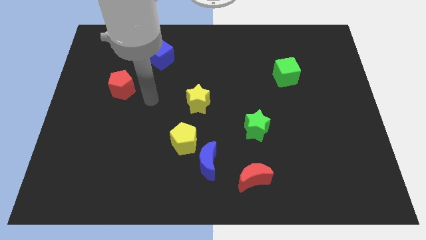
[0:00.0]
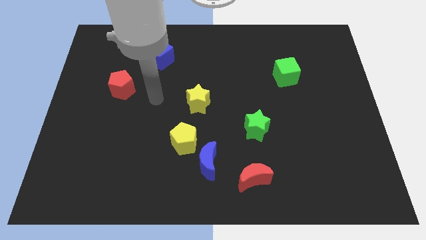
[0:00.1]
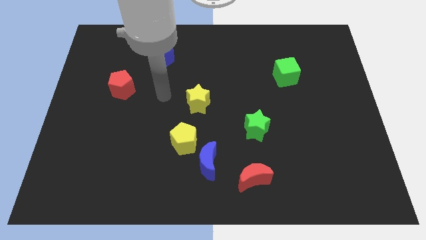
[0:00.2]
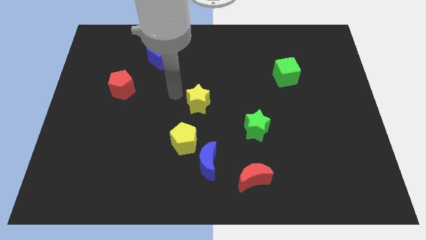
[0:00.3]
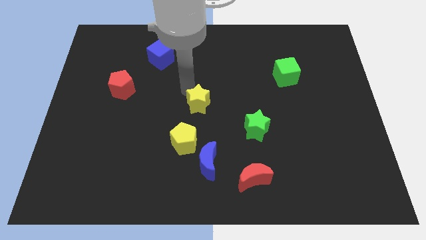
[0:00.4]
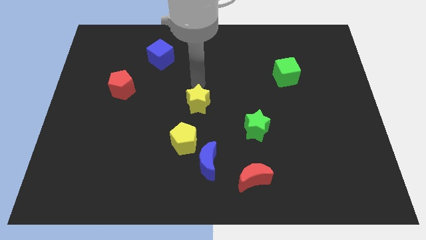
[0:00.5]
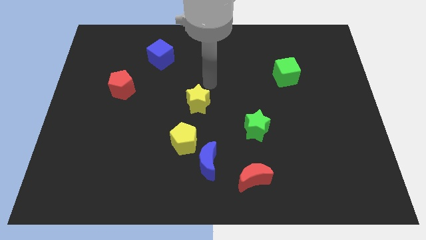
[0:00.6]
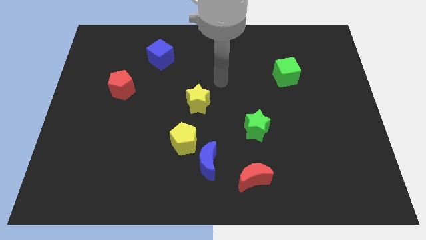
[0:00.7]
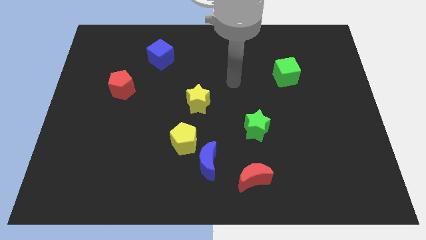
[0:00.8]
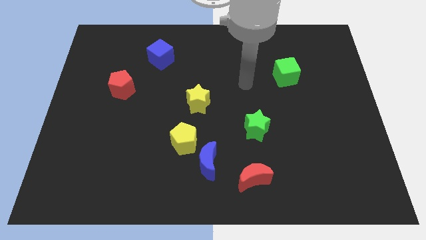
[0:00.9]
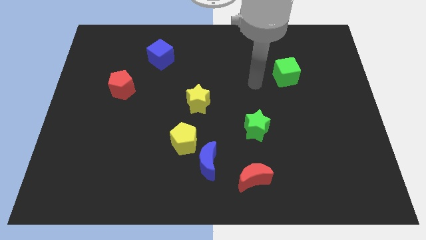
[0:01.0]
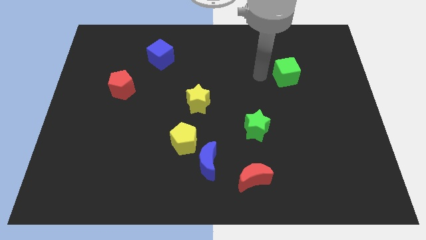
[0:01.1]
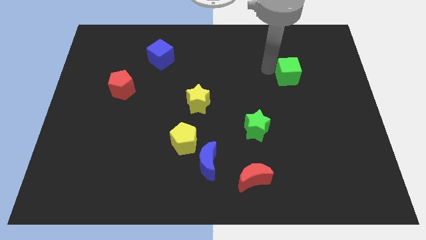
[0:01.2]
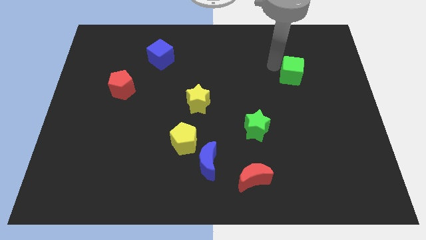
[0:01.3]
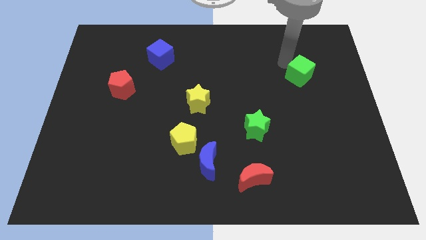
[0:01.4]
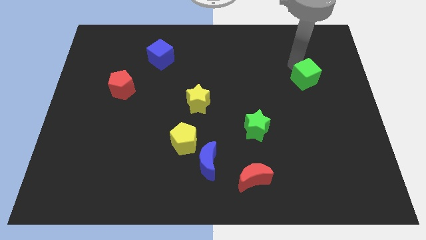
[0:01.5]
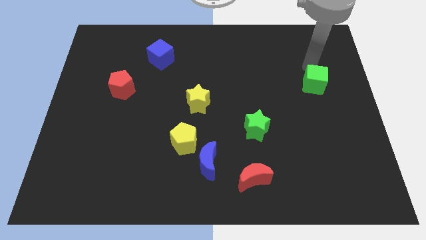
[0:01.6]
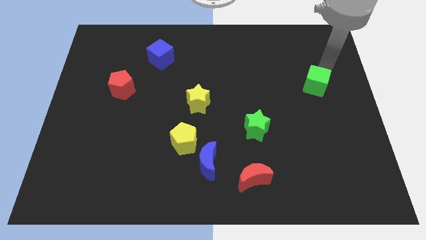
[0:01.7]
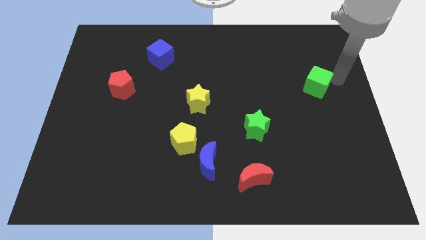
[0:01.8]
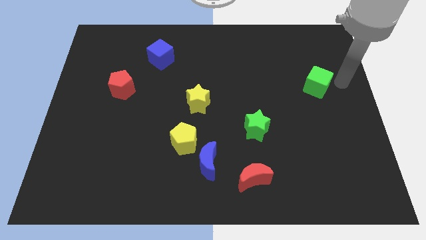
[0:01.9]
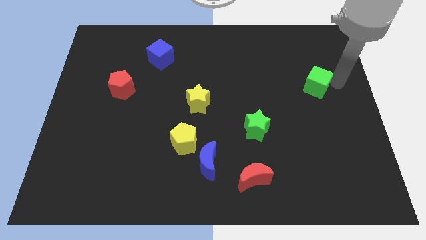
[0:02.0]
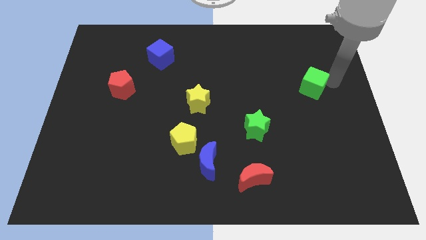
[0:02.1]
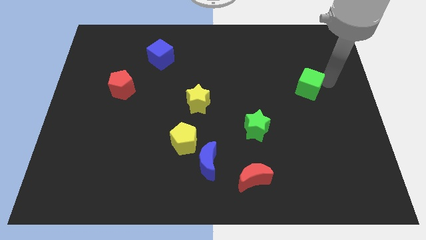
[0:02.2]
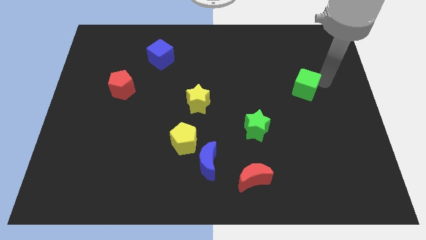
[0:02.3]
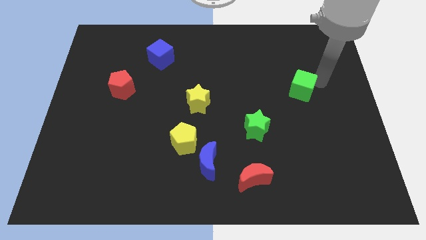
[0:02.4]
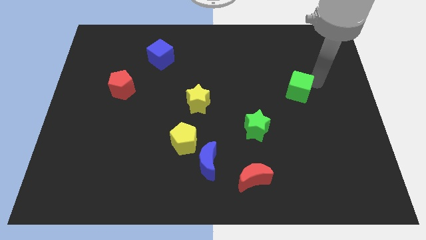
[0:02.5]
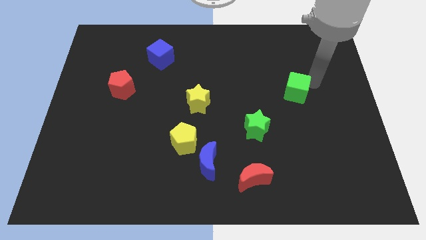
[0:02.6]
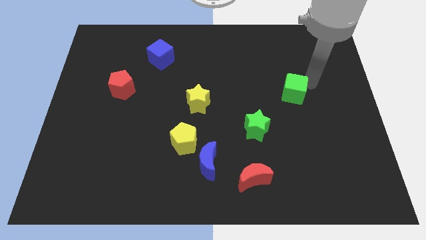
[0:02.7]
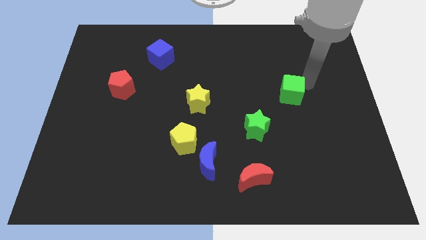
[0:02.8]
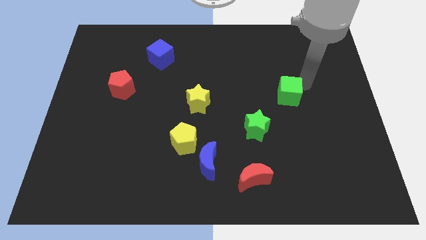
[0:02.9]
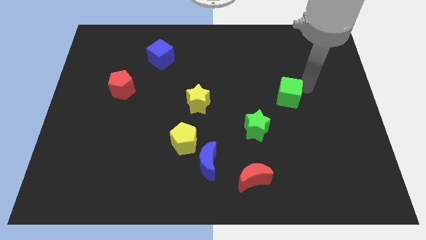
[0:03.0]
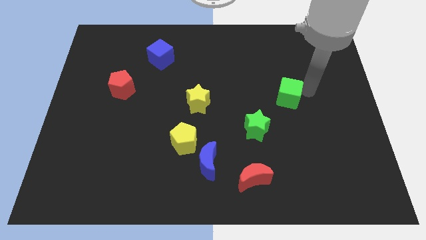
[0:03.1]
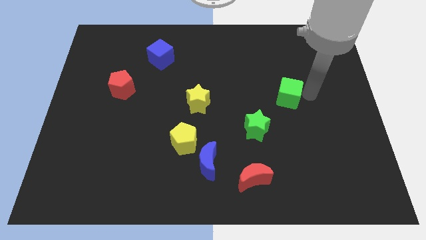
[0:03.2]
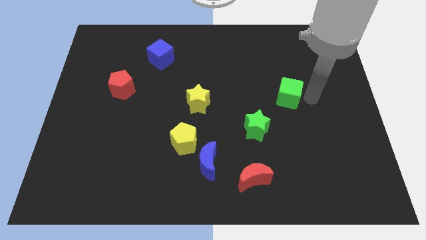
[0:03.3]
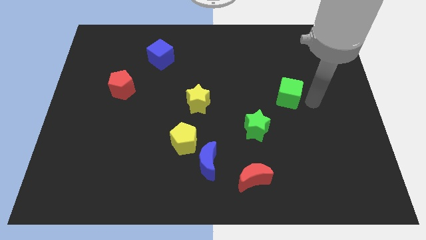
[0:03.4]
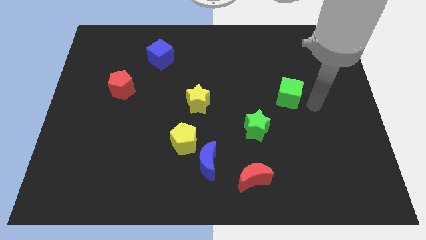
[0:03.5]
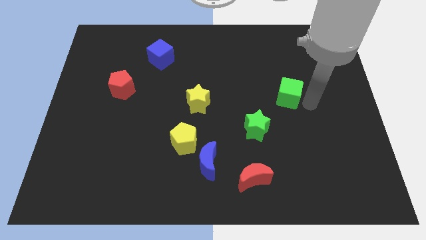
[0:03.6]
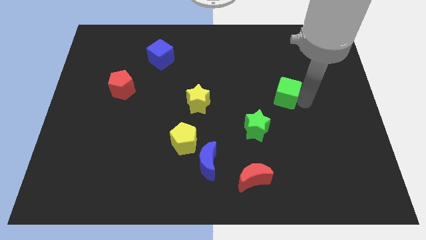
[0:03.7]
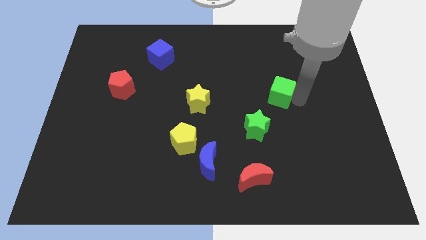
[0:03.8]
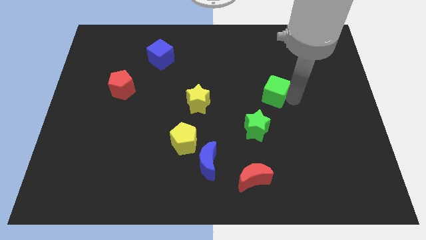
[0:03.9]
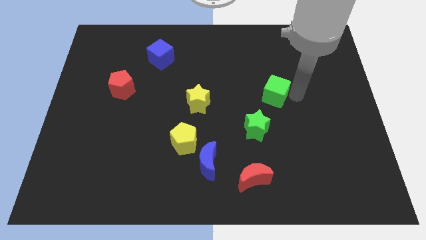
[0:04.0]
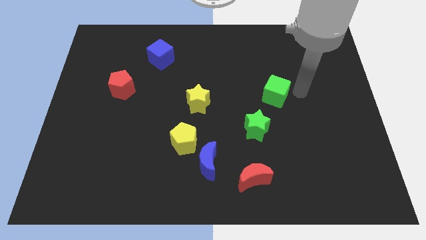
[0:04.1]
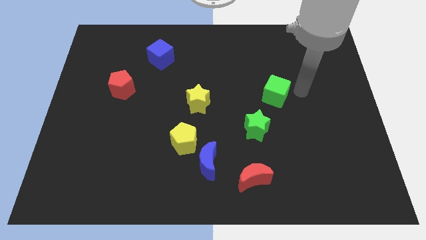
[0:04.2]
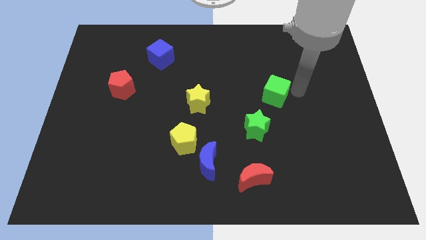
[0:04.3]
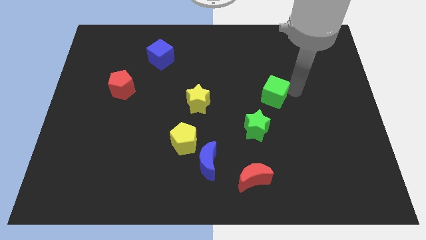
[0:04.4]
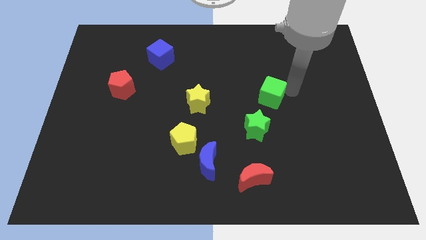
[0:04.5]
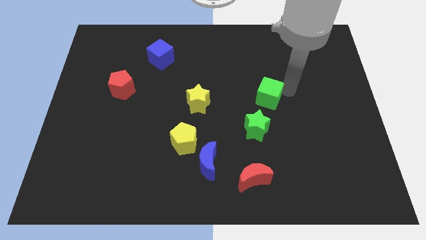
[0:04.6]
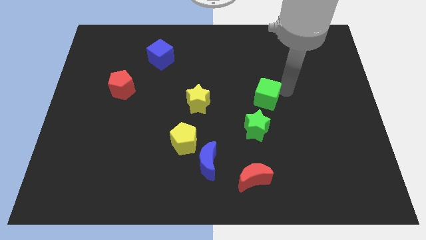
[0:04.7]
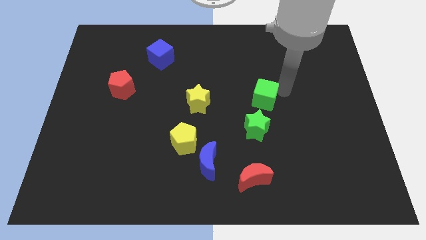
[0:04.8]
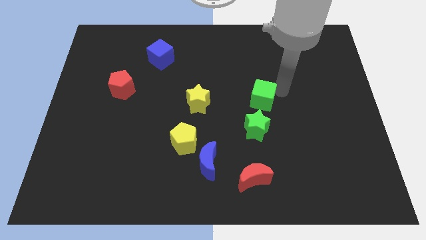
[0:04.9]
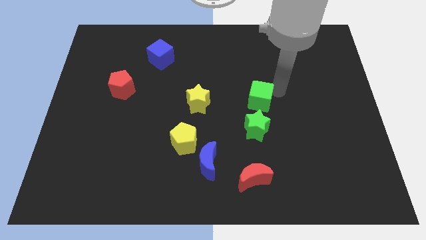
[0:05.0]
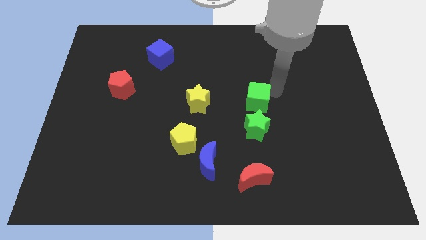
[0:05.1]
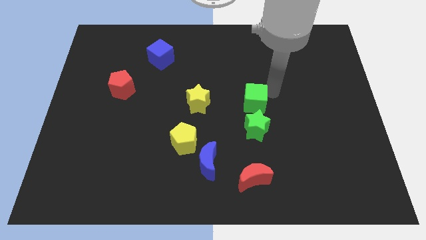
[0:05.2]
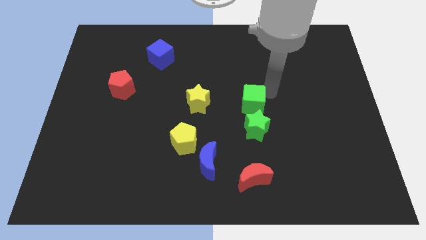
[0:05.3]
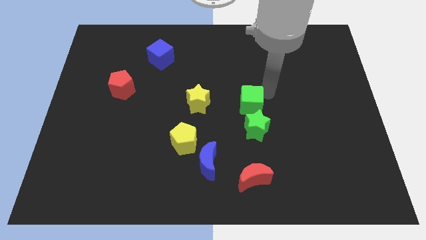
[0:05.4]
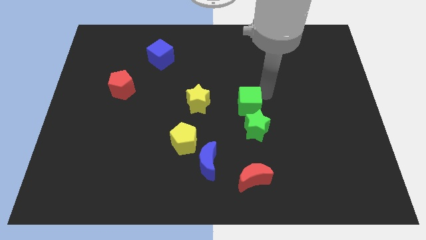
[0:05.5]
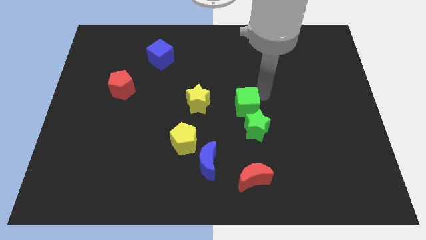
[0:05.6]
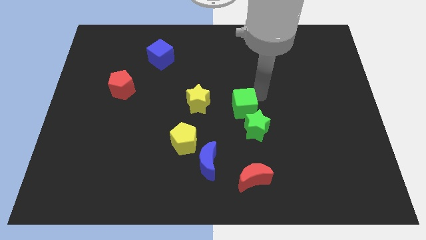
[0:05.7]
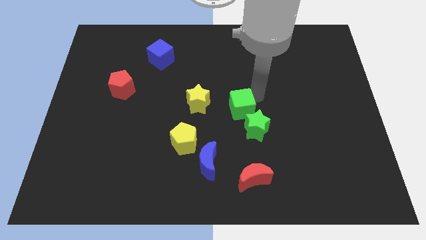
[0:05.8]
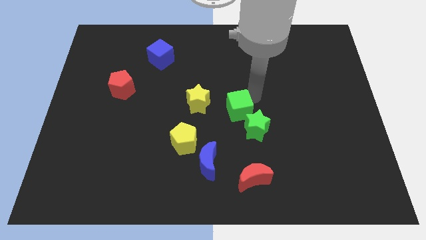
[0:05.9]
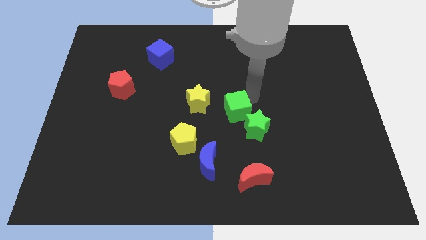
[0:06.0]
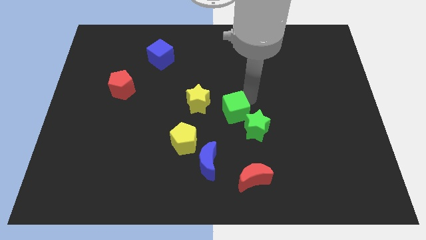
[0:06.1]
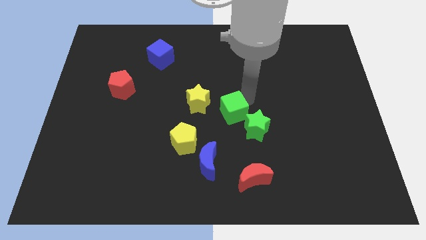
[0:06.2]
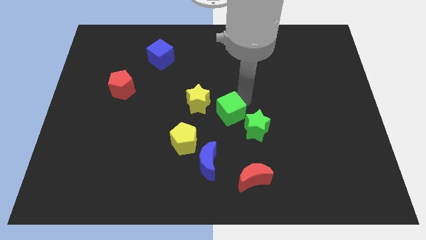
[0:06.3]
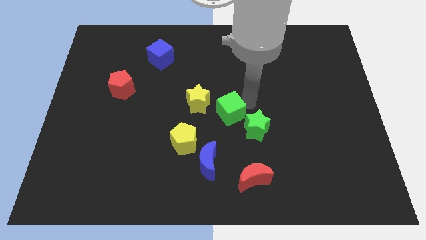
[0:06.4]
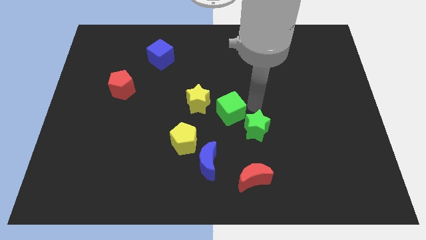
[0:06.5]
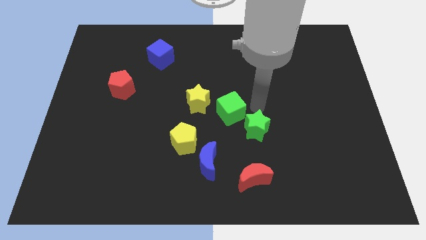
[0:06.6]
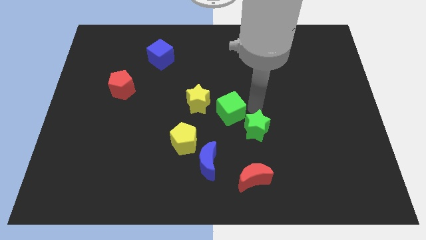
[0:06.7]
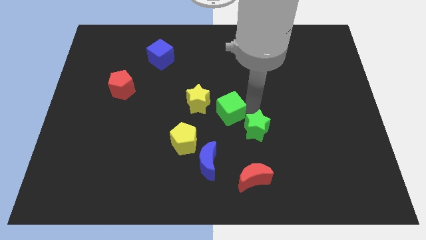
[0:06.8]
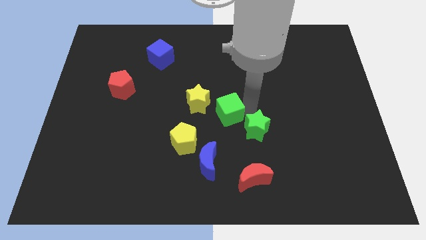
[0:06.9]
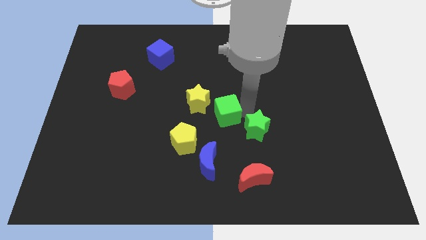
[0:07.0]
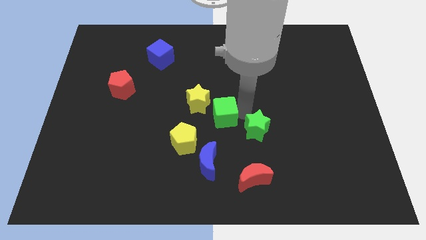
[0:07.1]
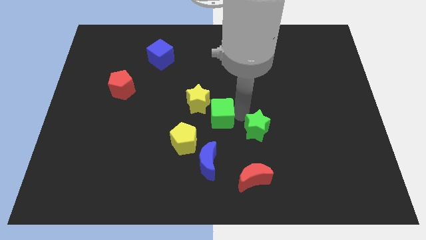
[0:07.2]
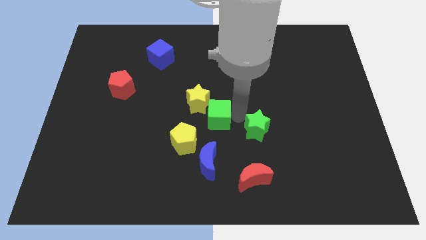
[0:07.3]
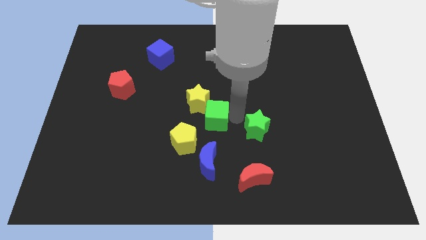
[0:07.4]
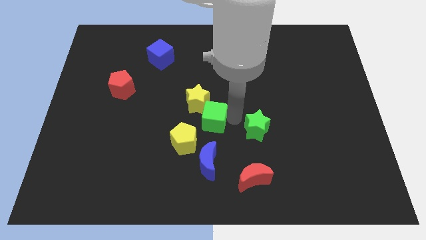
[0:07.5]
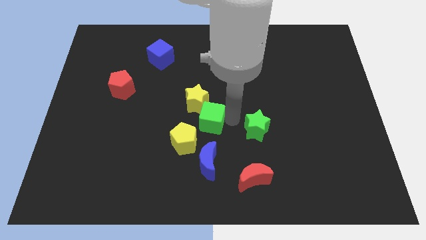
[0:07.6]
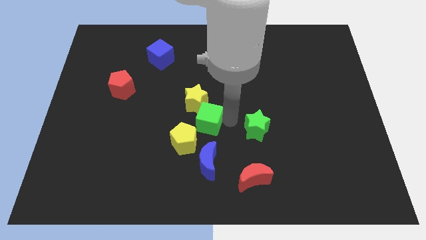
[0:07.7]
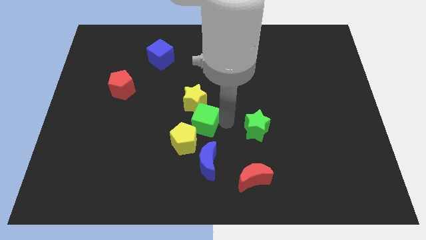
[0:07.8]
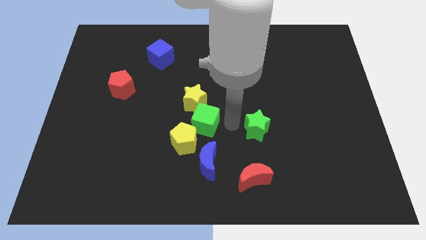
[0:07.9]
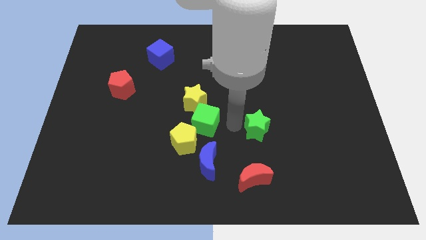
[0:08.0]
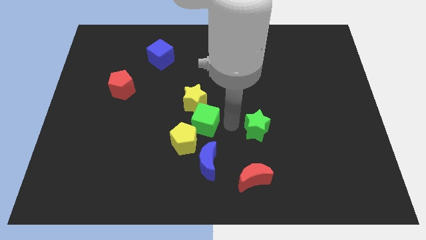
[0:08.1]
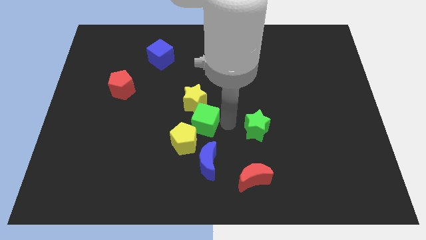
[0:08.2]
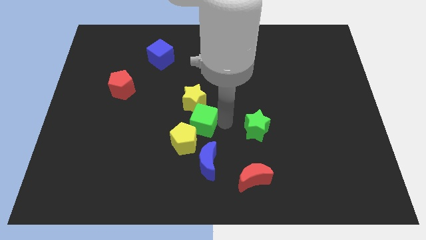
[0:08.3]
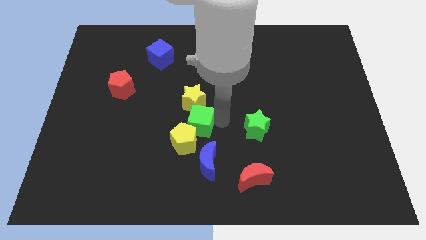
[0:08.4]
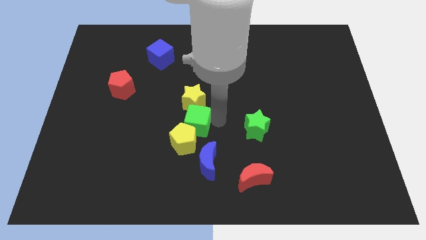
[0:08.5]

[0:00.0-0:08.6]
slide the green cube to the bottom left of the yellow star
